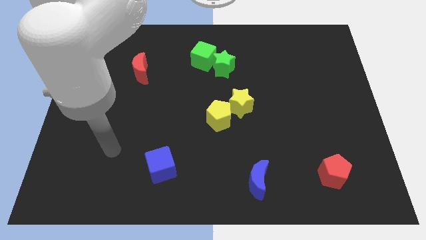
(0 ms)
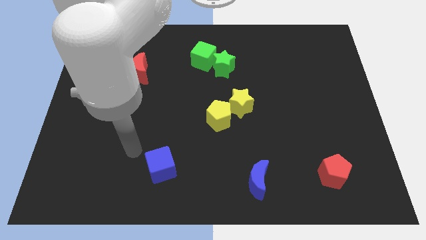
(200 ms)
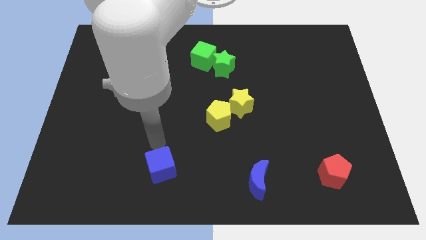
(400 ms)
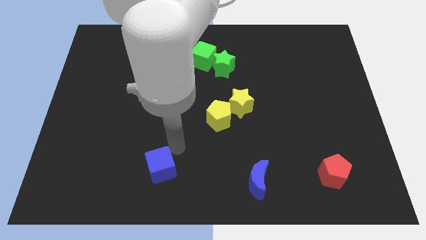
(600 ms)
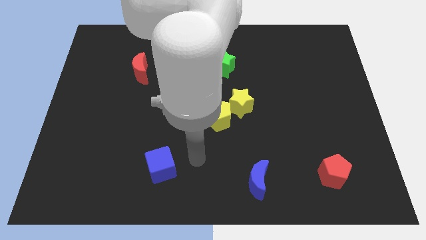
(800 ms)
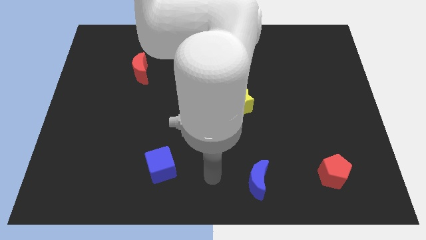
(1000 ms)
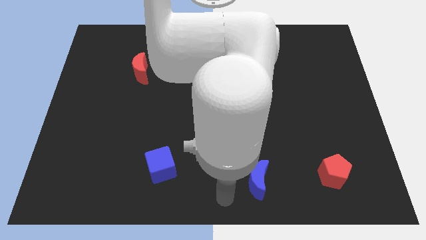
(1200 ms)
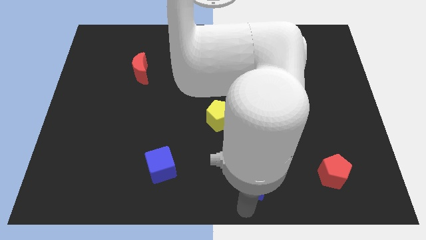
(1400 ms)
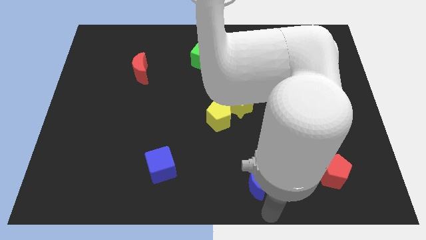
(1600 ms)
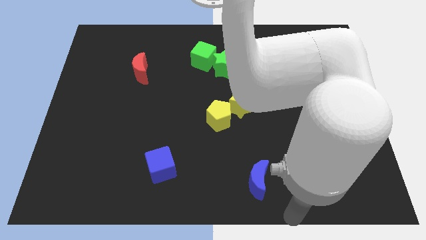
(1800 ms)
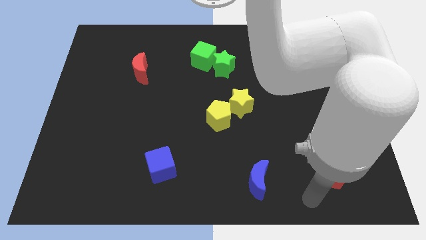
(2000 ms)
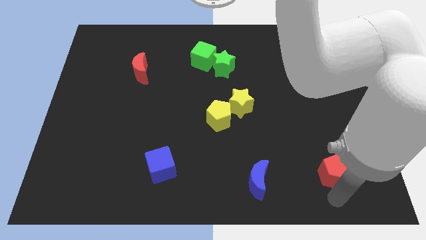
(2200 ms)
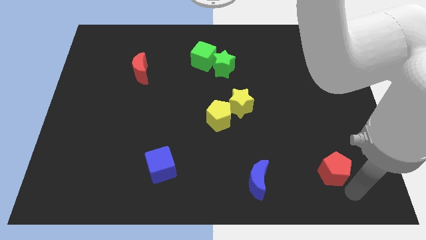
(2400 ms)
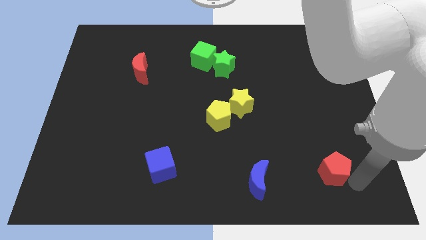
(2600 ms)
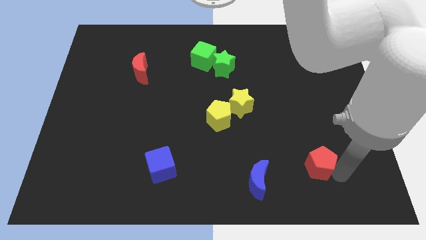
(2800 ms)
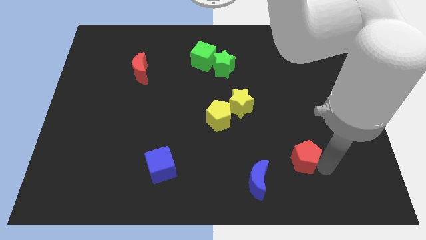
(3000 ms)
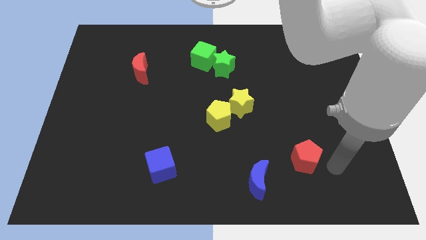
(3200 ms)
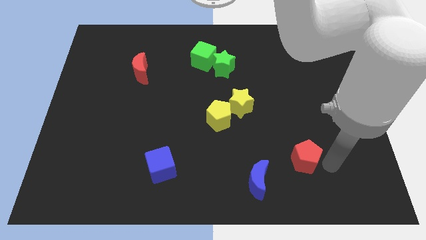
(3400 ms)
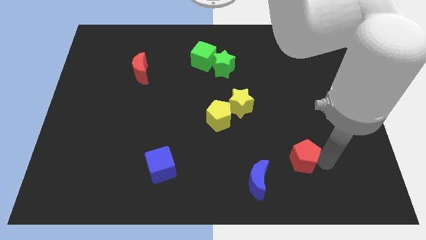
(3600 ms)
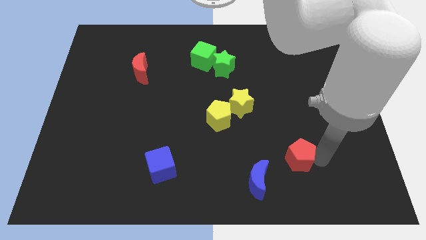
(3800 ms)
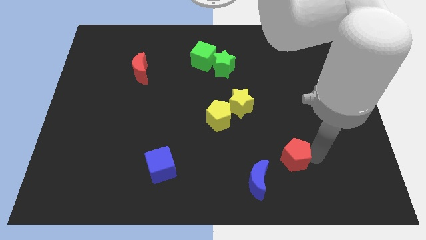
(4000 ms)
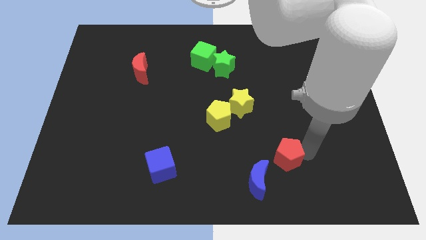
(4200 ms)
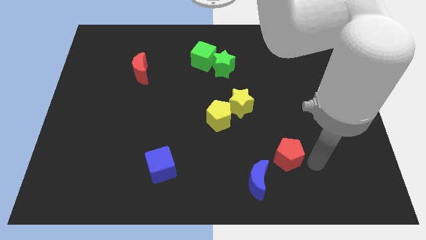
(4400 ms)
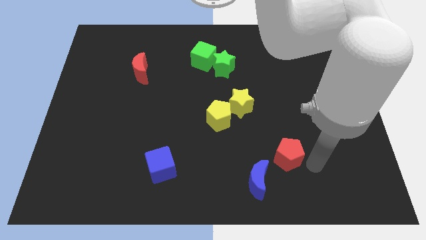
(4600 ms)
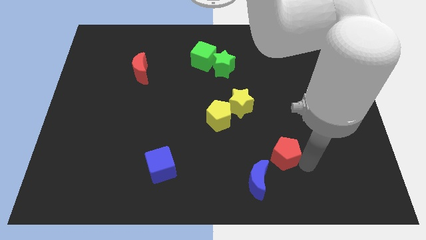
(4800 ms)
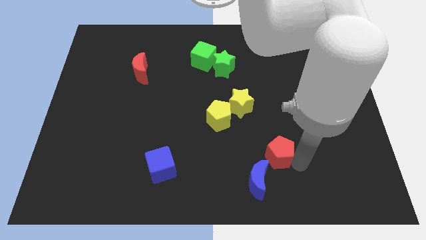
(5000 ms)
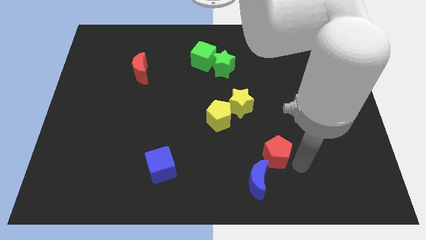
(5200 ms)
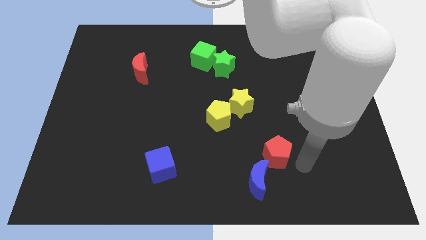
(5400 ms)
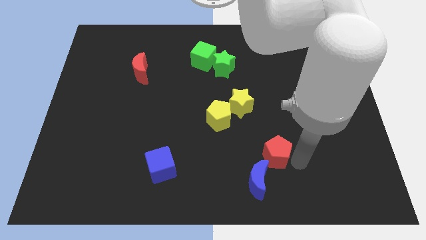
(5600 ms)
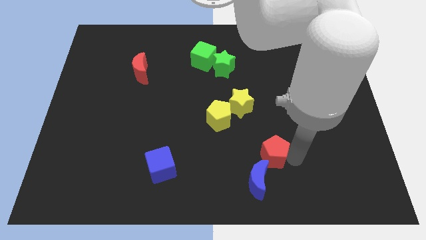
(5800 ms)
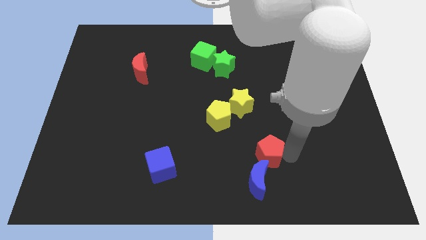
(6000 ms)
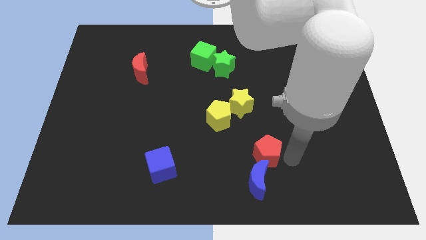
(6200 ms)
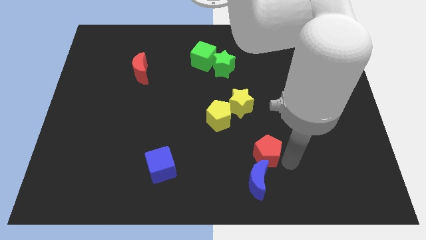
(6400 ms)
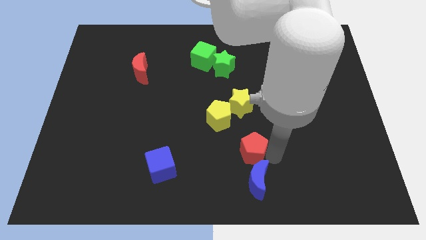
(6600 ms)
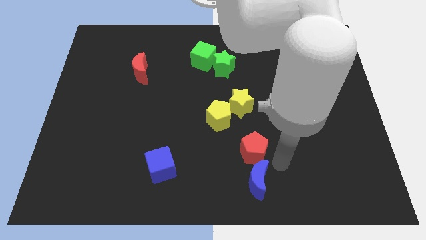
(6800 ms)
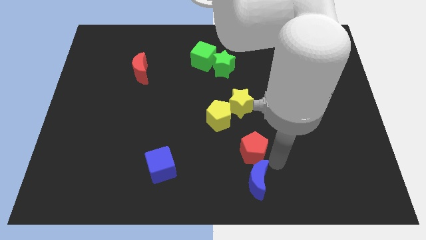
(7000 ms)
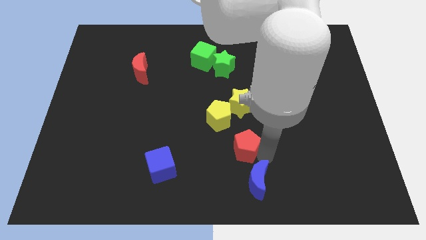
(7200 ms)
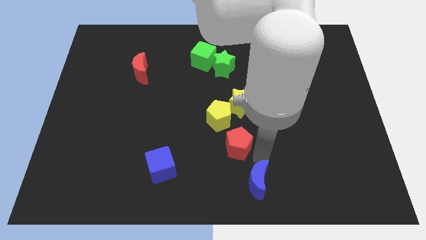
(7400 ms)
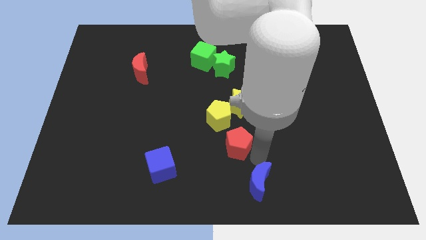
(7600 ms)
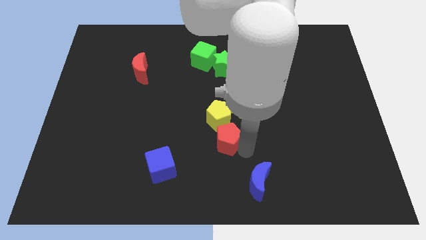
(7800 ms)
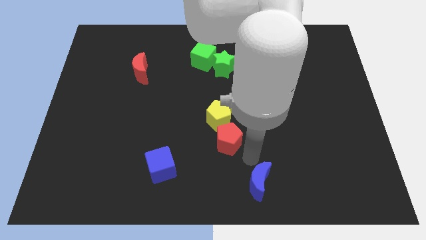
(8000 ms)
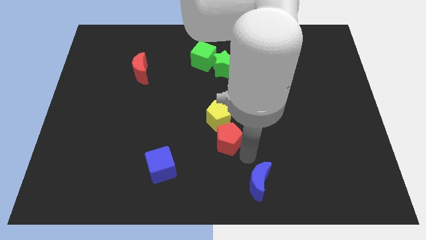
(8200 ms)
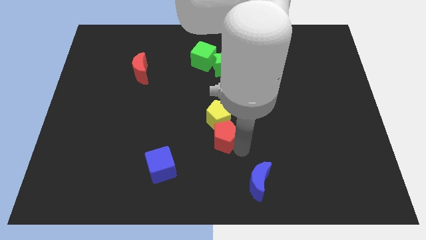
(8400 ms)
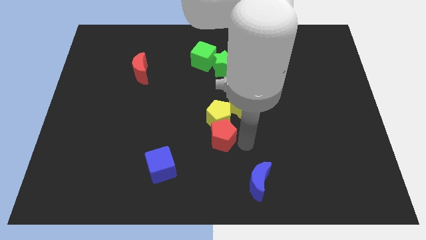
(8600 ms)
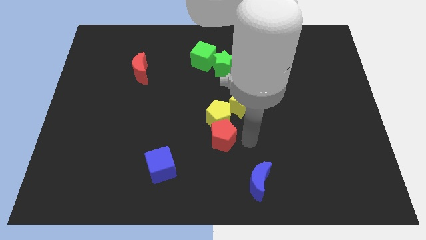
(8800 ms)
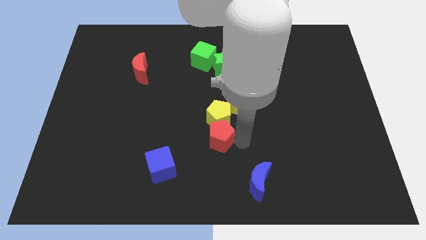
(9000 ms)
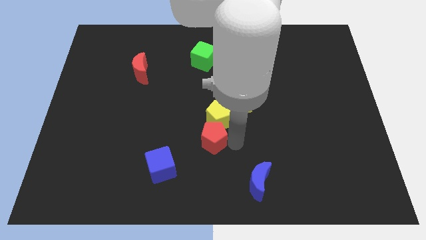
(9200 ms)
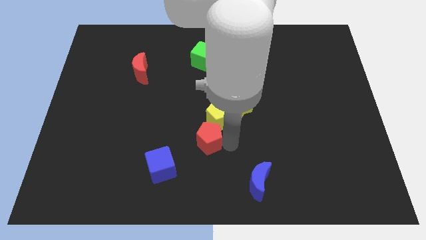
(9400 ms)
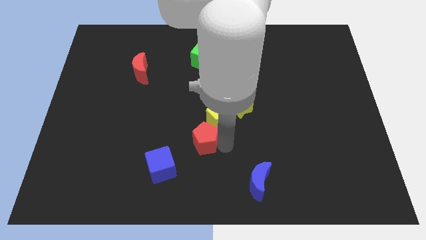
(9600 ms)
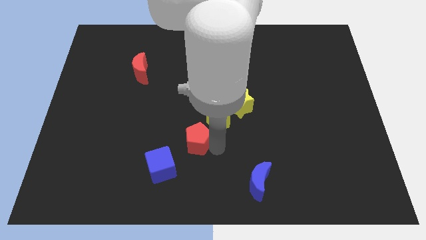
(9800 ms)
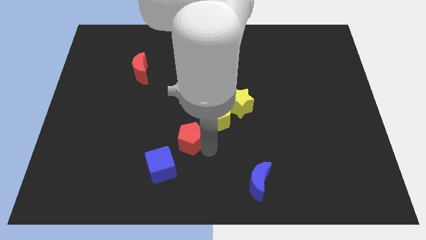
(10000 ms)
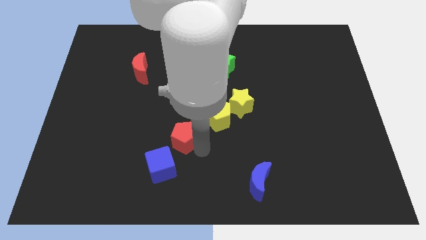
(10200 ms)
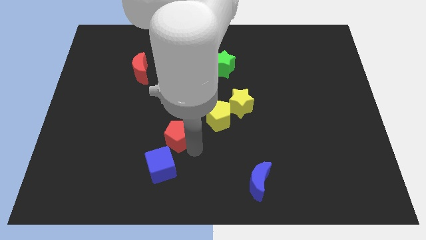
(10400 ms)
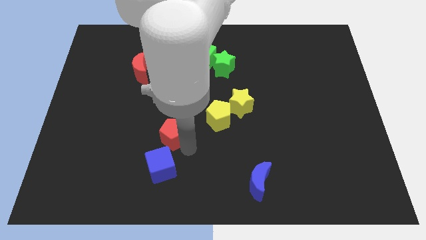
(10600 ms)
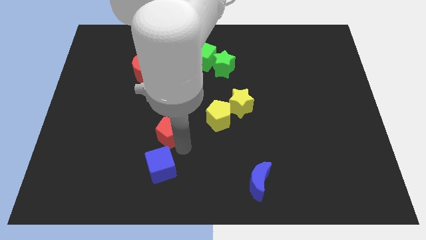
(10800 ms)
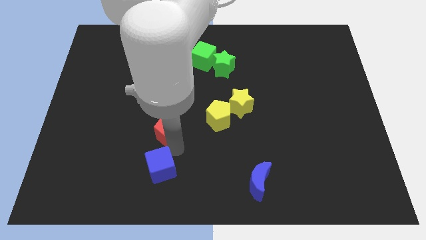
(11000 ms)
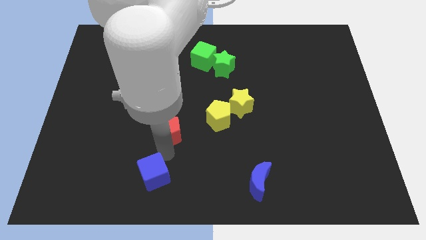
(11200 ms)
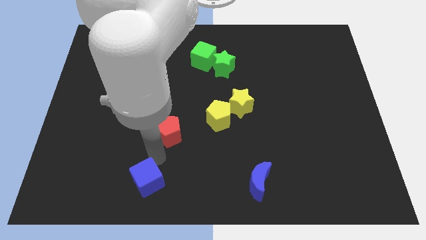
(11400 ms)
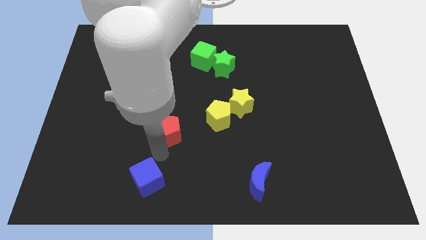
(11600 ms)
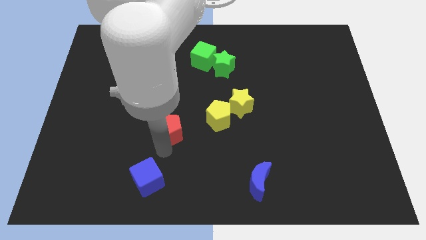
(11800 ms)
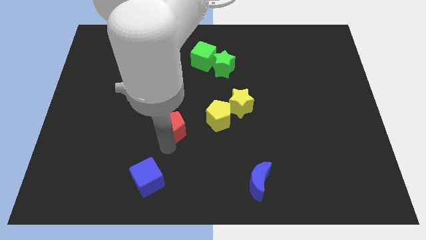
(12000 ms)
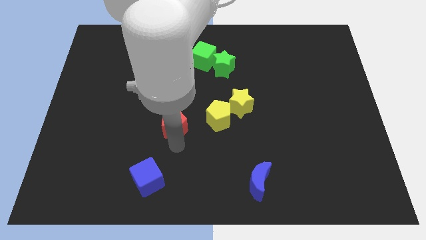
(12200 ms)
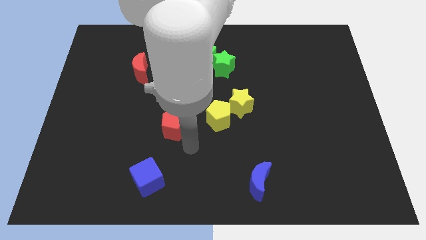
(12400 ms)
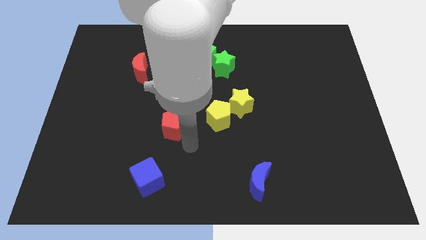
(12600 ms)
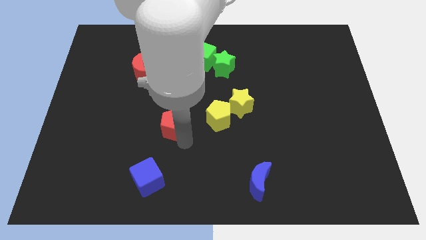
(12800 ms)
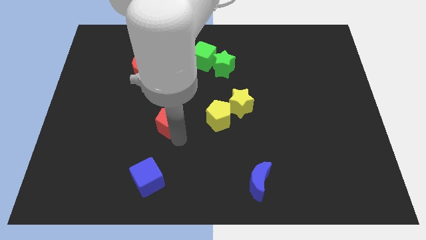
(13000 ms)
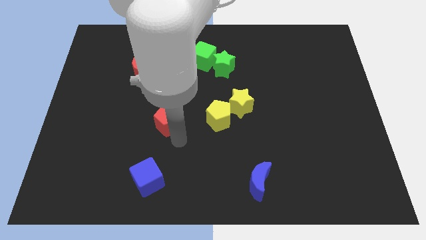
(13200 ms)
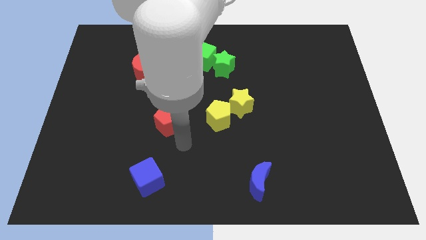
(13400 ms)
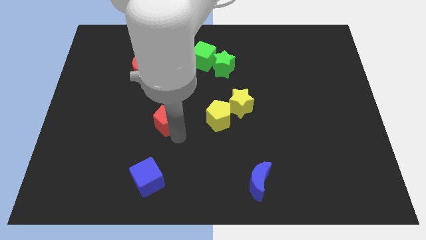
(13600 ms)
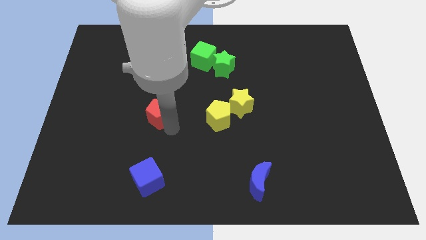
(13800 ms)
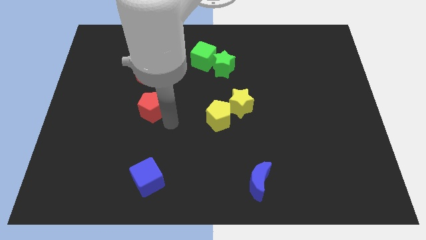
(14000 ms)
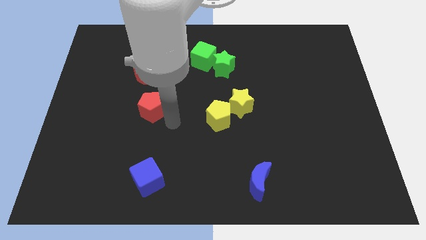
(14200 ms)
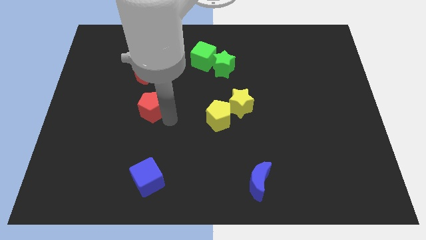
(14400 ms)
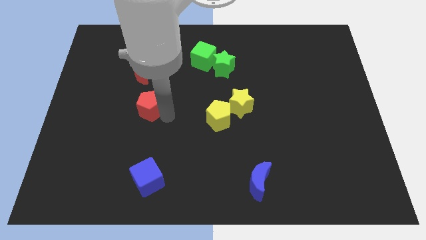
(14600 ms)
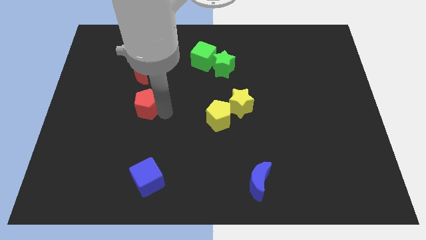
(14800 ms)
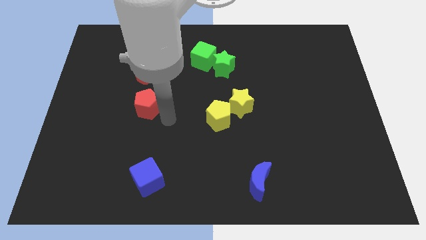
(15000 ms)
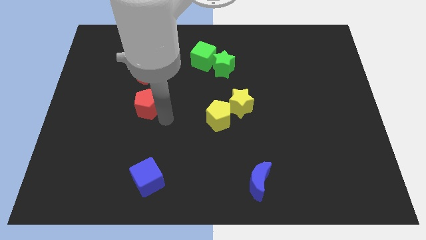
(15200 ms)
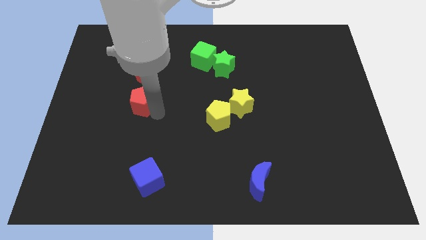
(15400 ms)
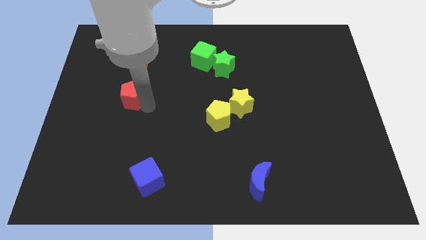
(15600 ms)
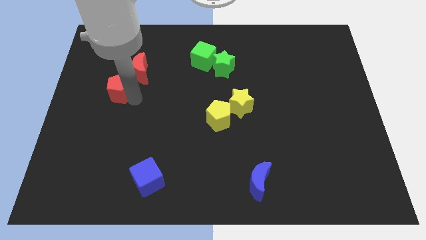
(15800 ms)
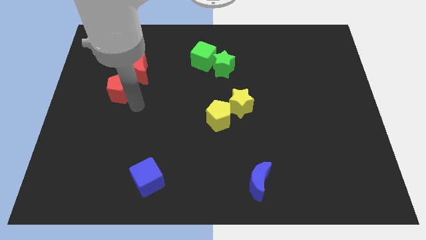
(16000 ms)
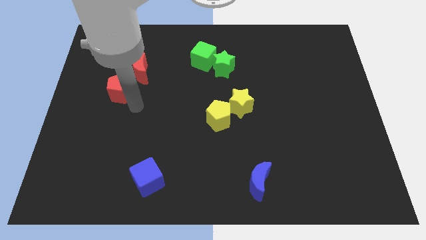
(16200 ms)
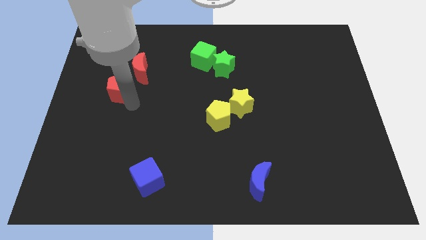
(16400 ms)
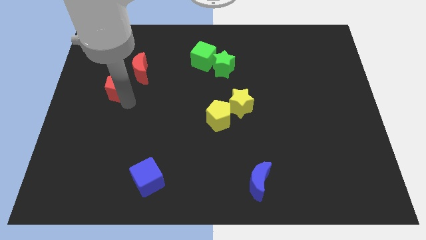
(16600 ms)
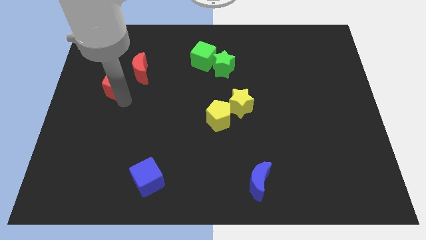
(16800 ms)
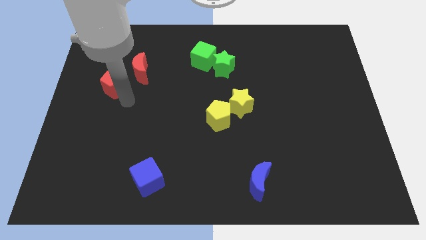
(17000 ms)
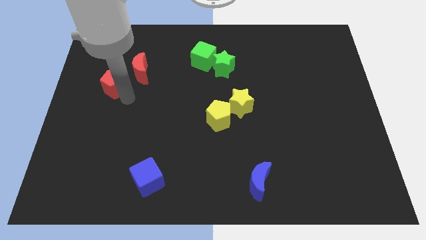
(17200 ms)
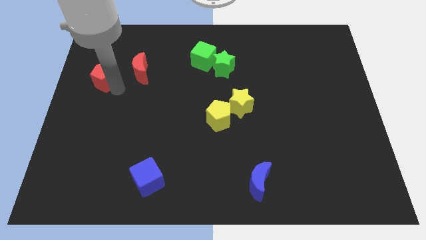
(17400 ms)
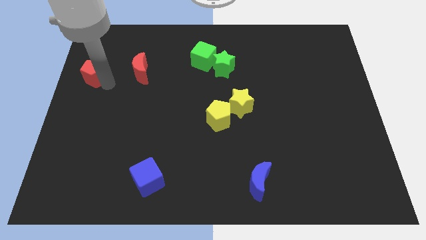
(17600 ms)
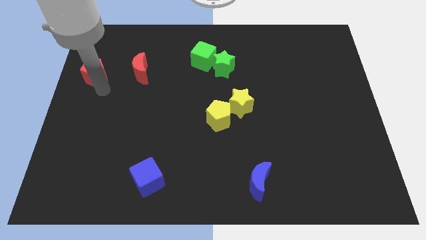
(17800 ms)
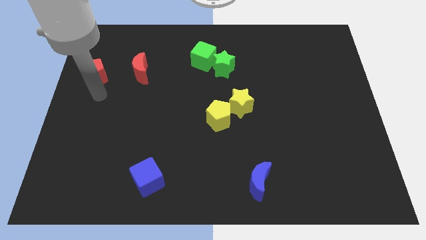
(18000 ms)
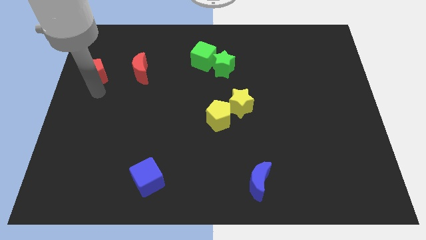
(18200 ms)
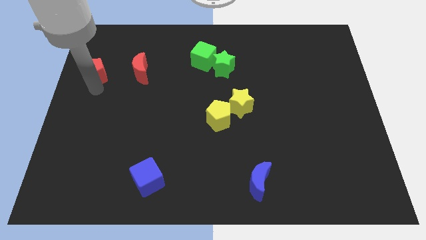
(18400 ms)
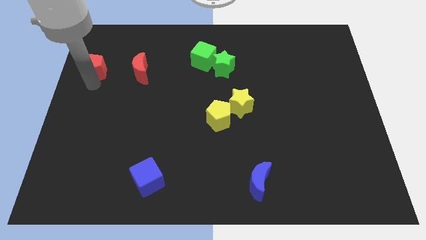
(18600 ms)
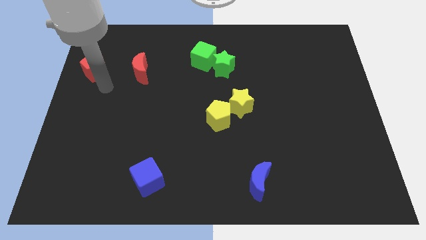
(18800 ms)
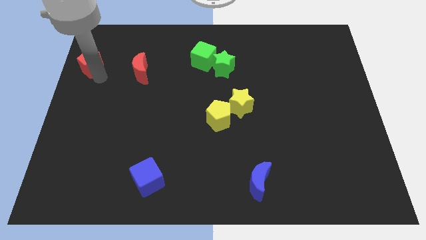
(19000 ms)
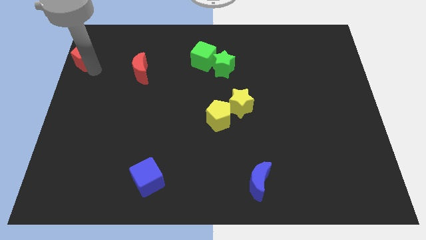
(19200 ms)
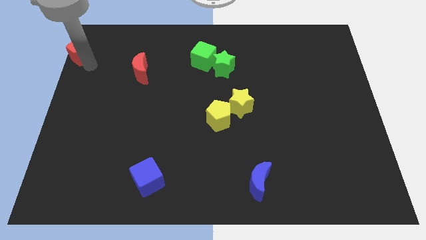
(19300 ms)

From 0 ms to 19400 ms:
put the red pentagon to the upper left corner
